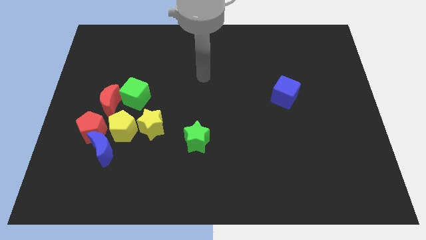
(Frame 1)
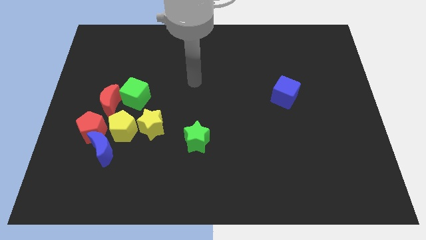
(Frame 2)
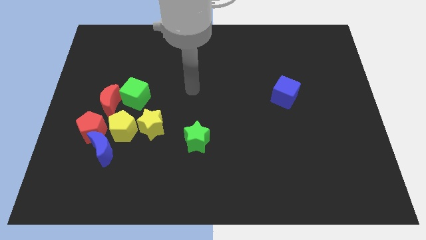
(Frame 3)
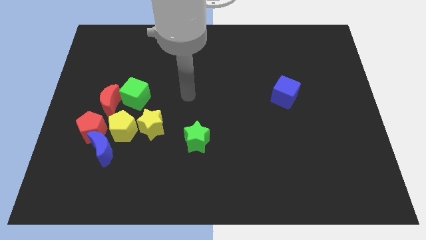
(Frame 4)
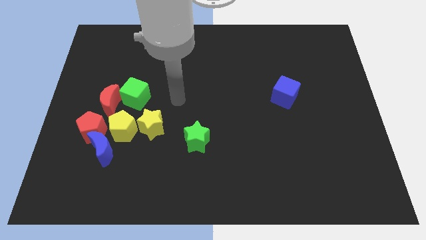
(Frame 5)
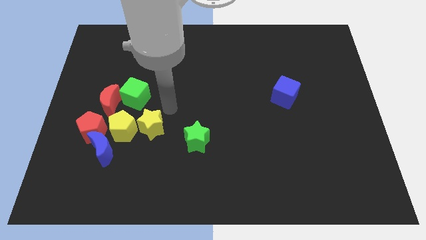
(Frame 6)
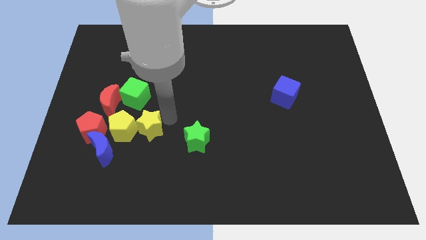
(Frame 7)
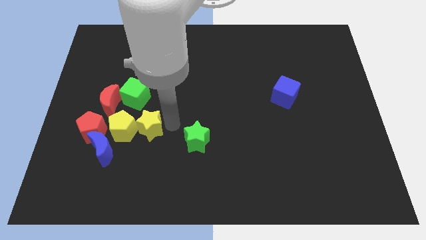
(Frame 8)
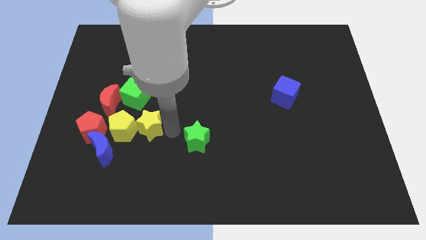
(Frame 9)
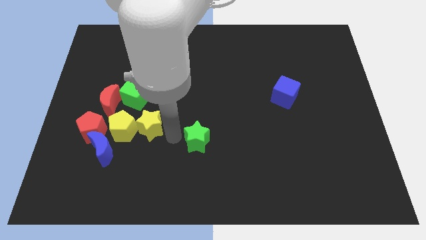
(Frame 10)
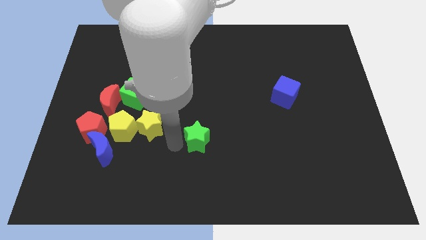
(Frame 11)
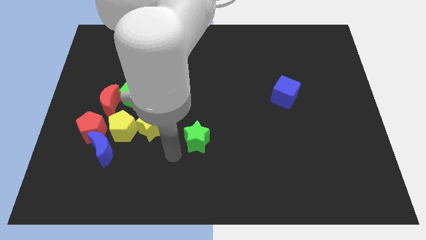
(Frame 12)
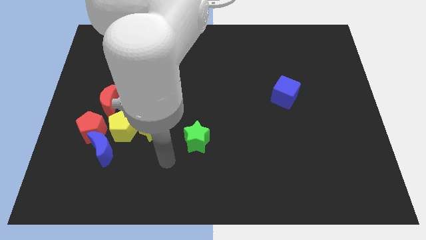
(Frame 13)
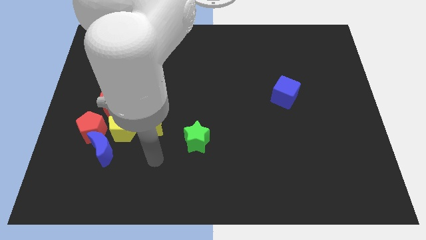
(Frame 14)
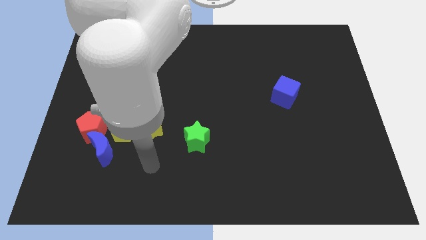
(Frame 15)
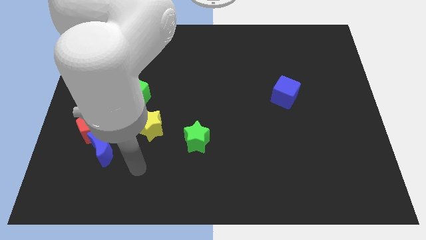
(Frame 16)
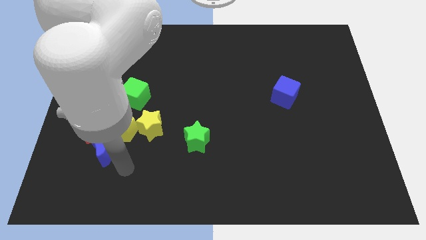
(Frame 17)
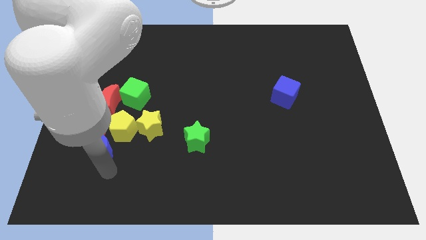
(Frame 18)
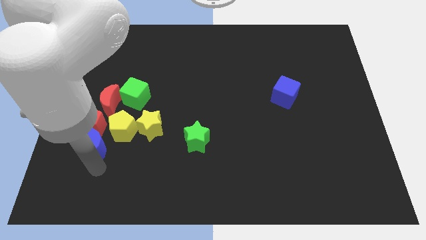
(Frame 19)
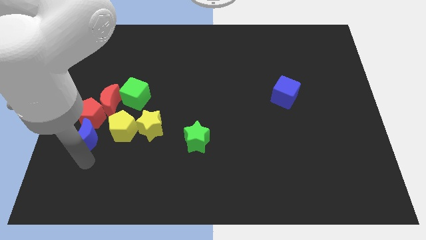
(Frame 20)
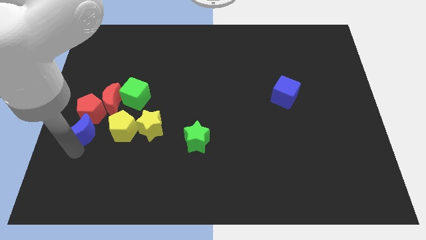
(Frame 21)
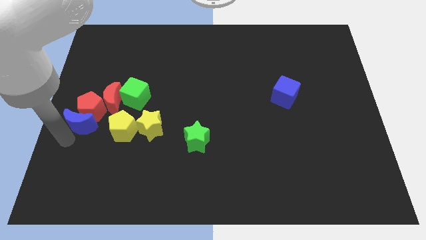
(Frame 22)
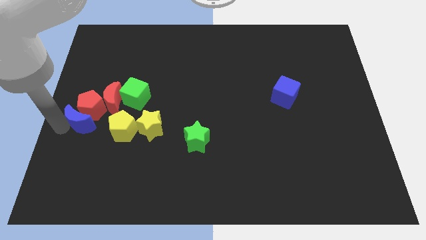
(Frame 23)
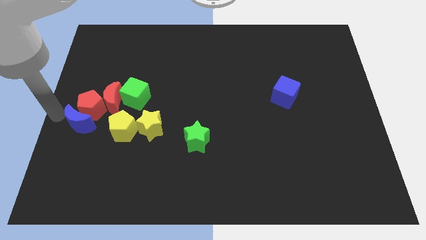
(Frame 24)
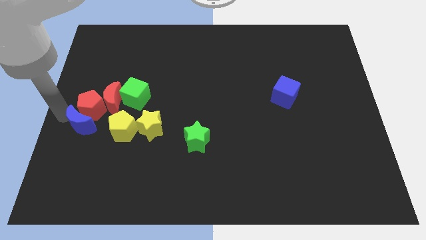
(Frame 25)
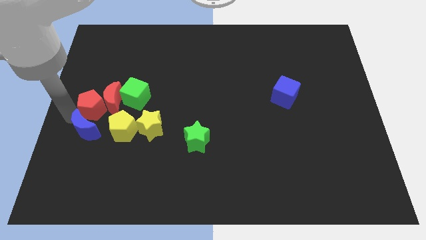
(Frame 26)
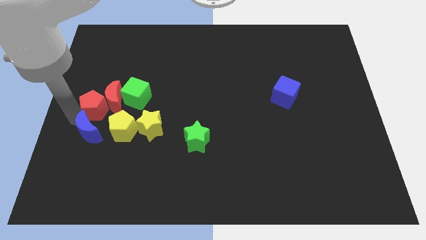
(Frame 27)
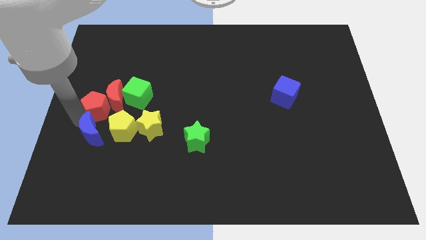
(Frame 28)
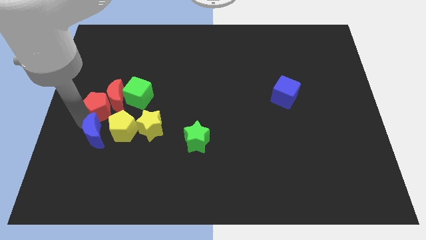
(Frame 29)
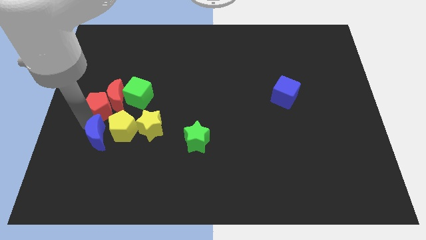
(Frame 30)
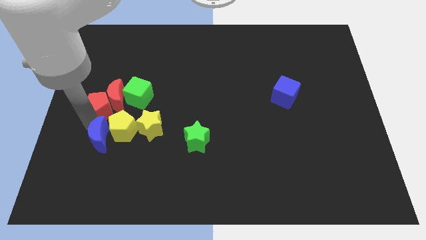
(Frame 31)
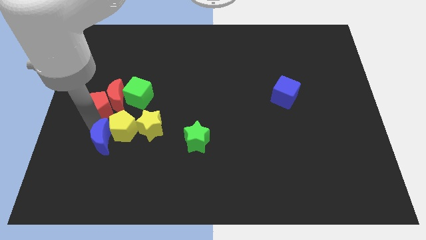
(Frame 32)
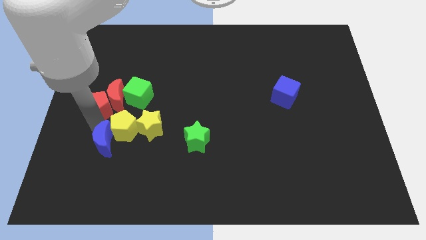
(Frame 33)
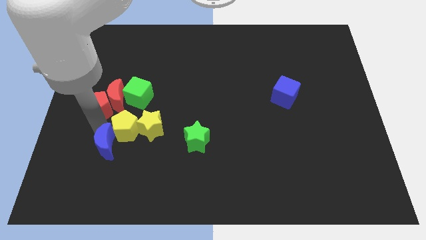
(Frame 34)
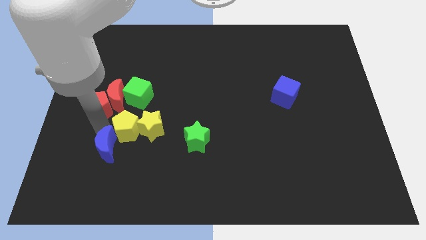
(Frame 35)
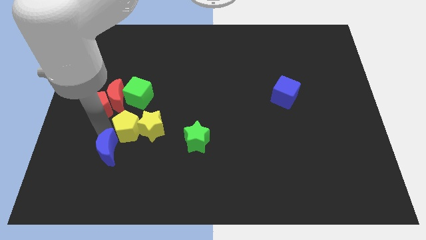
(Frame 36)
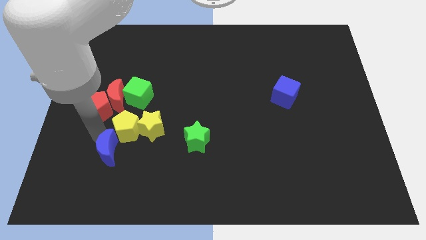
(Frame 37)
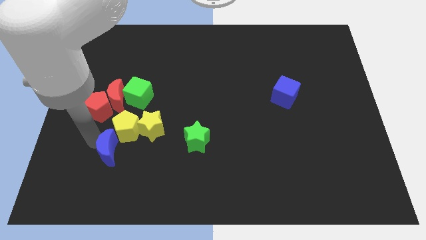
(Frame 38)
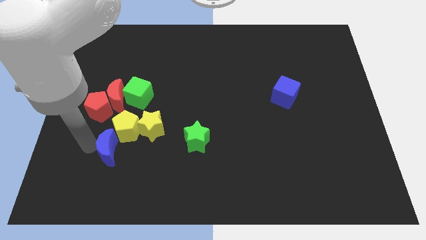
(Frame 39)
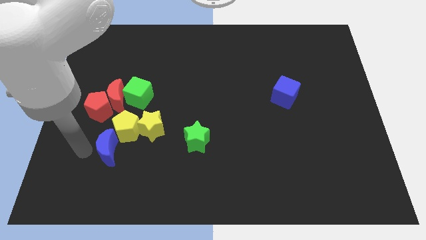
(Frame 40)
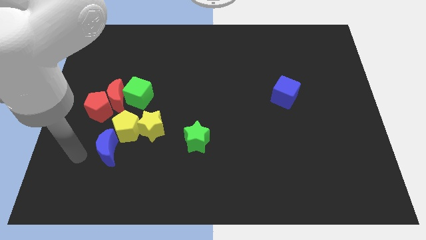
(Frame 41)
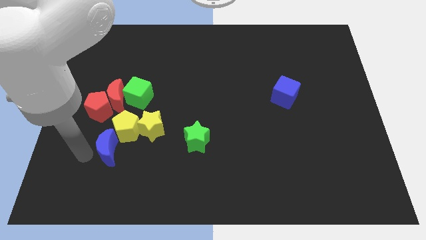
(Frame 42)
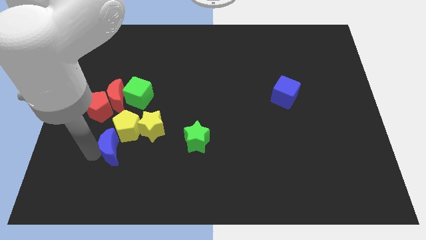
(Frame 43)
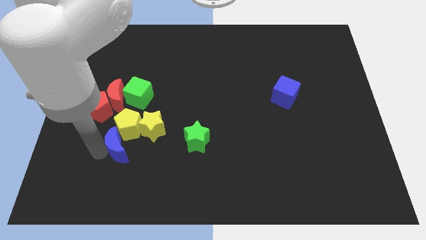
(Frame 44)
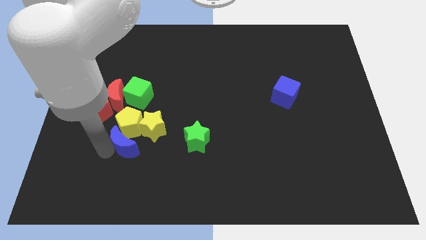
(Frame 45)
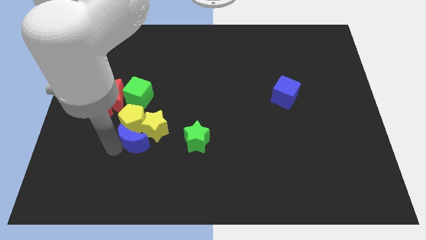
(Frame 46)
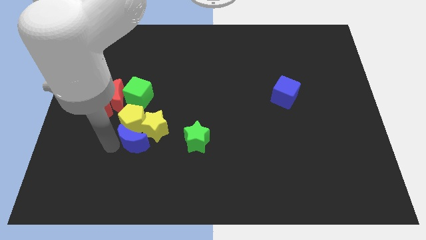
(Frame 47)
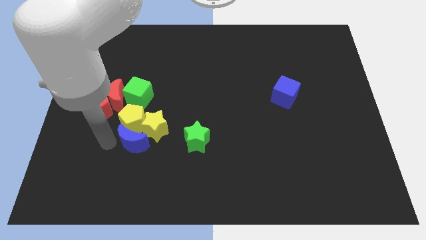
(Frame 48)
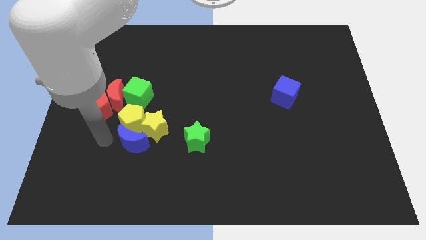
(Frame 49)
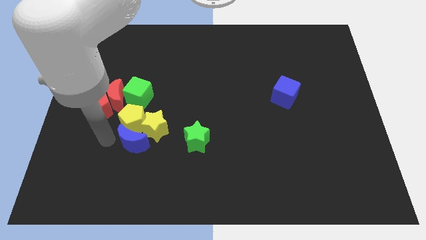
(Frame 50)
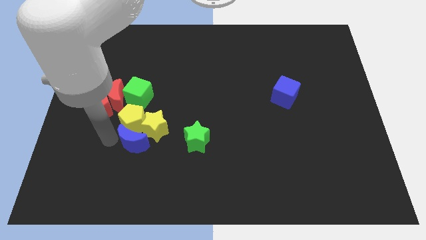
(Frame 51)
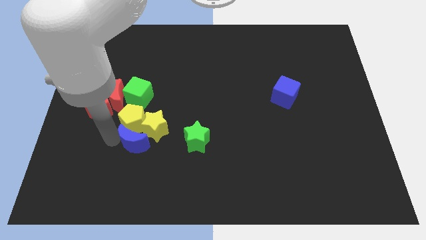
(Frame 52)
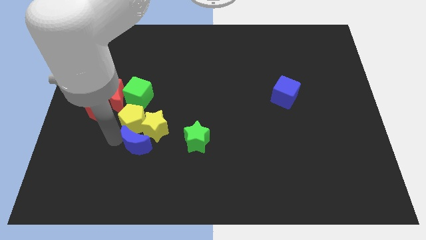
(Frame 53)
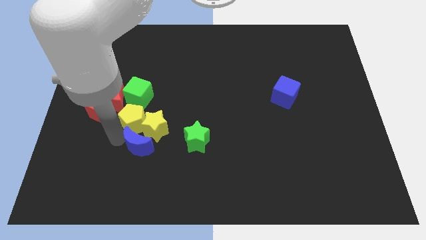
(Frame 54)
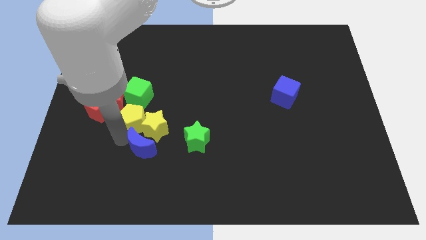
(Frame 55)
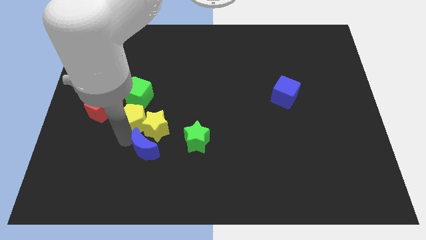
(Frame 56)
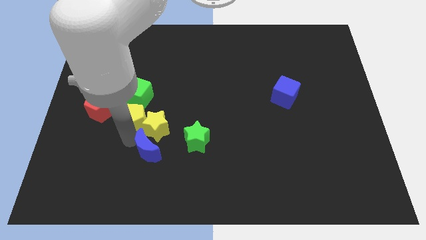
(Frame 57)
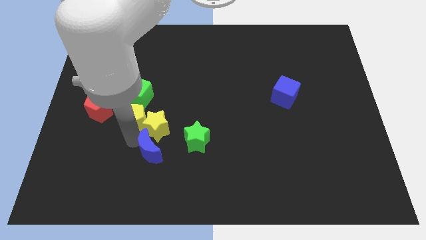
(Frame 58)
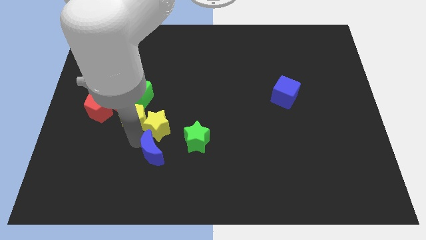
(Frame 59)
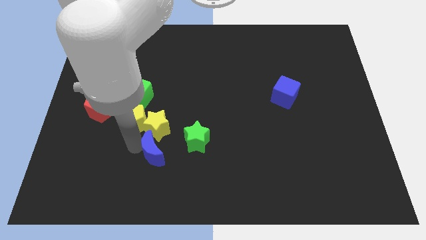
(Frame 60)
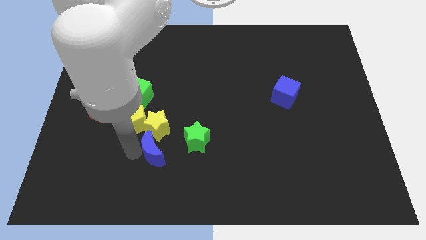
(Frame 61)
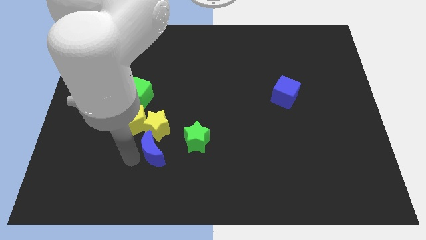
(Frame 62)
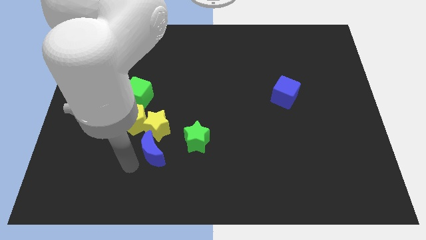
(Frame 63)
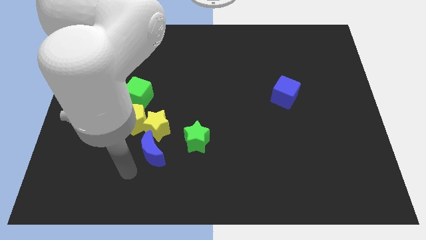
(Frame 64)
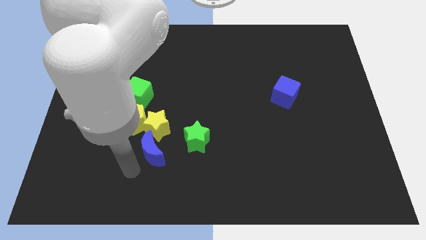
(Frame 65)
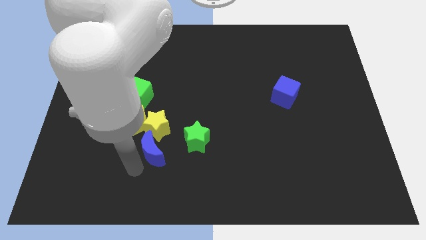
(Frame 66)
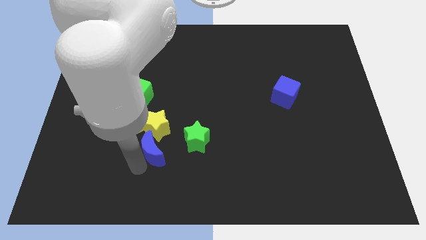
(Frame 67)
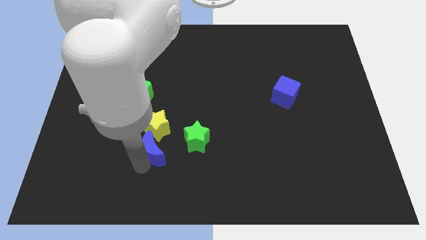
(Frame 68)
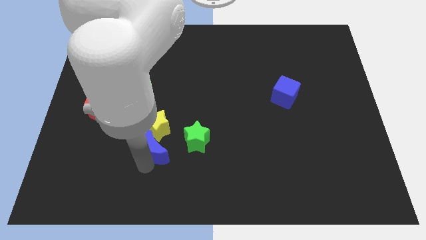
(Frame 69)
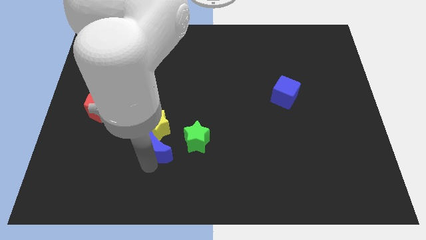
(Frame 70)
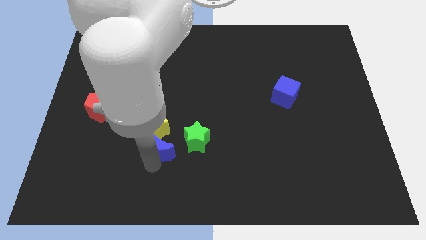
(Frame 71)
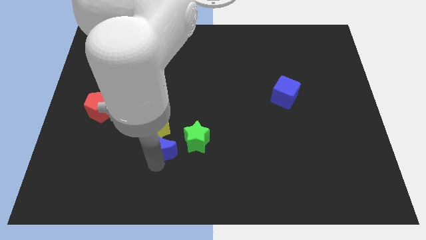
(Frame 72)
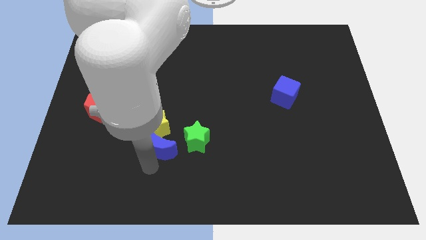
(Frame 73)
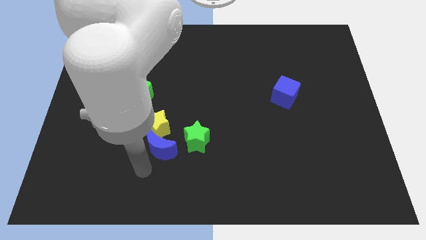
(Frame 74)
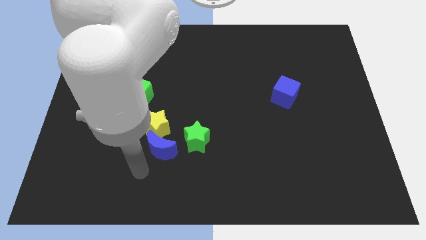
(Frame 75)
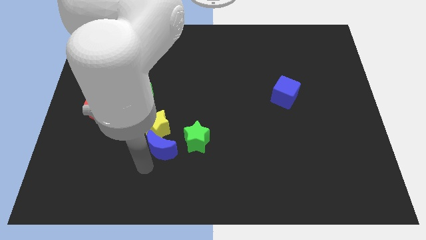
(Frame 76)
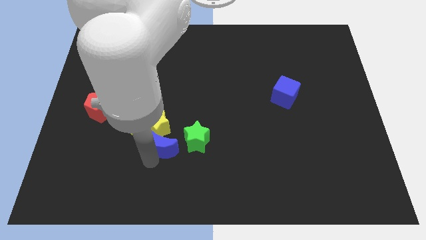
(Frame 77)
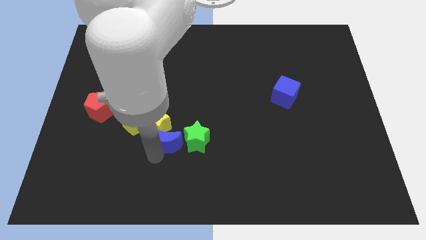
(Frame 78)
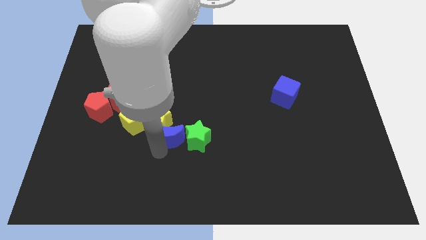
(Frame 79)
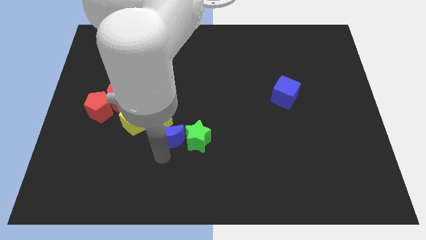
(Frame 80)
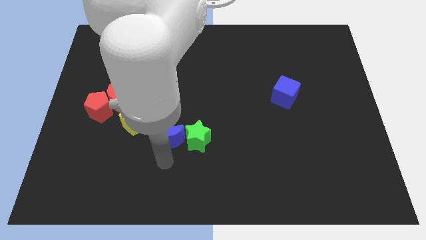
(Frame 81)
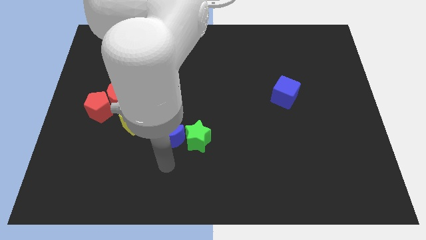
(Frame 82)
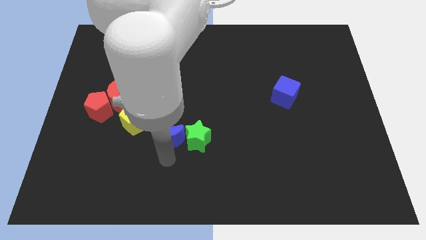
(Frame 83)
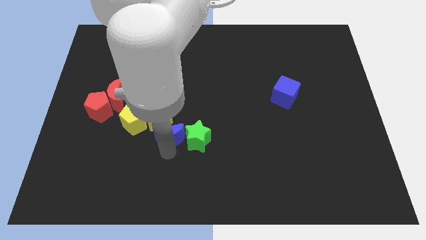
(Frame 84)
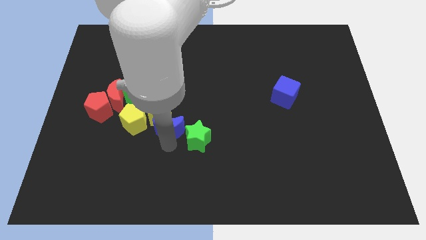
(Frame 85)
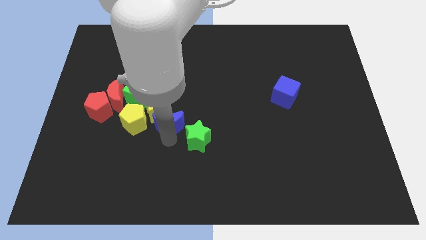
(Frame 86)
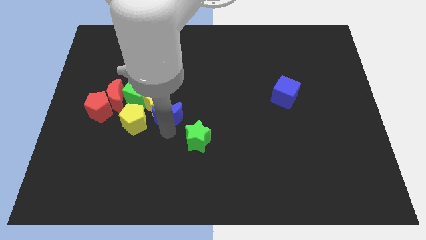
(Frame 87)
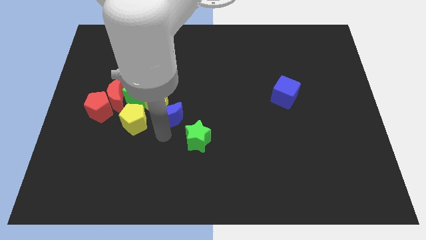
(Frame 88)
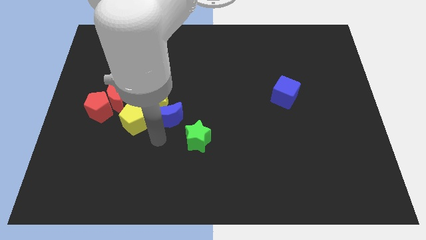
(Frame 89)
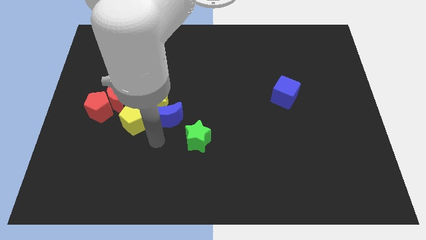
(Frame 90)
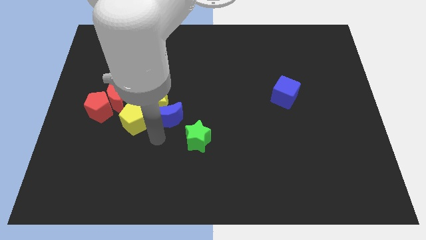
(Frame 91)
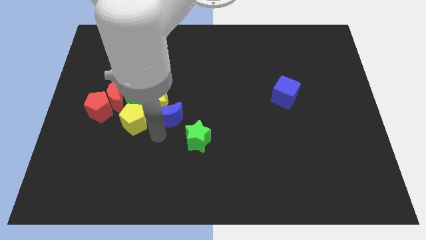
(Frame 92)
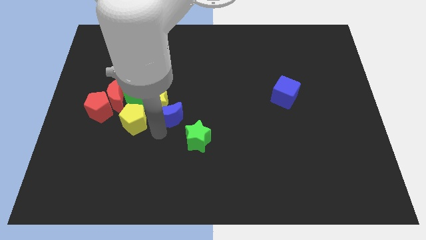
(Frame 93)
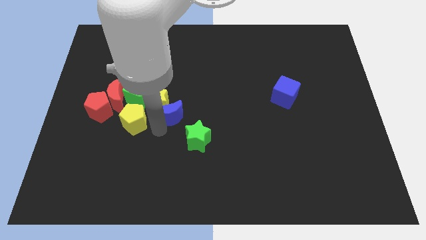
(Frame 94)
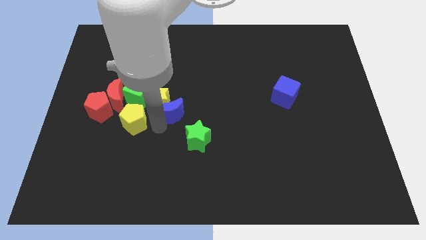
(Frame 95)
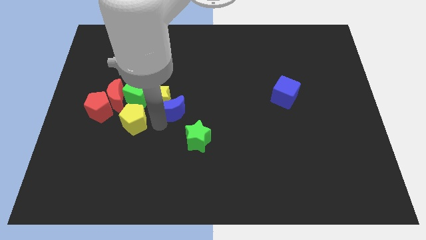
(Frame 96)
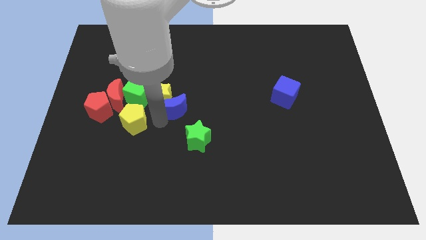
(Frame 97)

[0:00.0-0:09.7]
slide the blue moon to the right of the green cube
